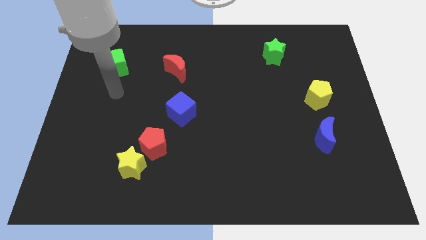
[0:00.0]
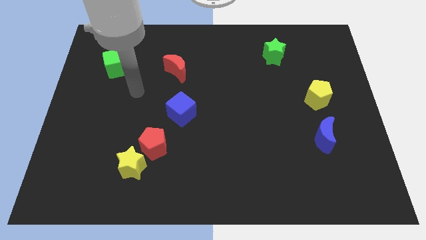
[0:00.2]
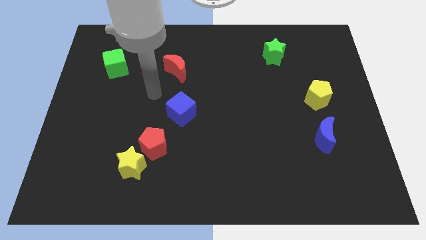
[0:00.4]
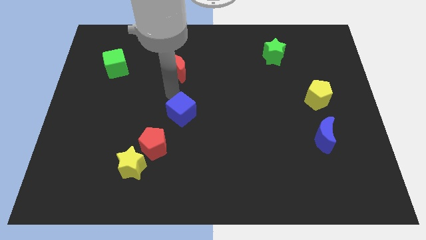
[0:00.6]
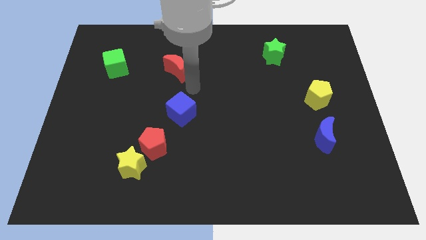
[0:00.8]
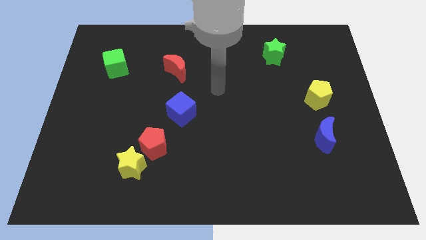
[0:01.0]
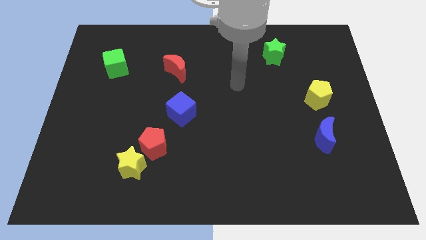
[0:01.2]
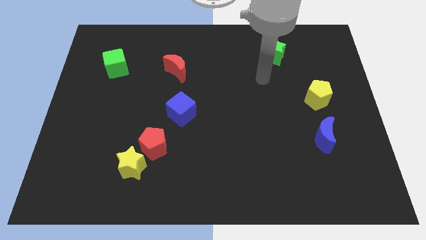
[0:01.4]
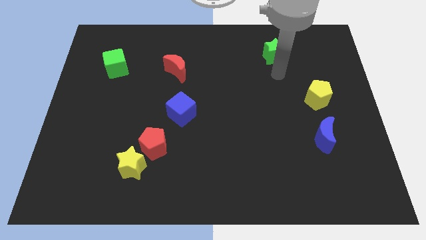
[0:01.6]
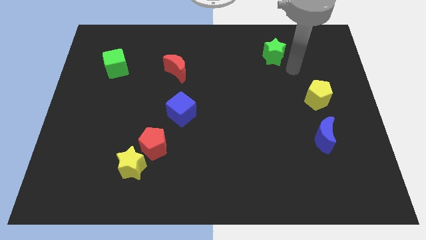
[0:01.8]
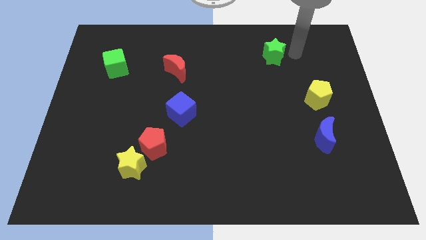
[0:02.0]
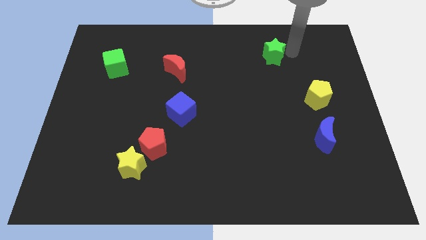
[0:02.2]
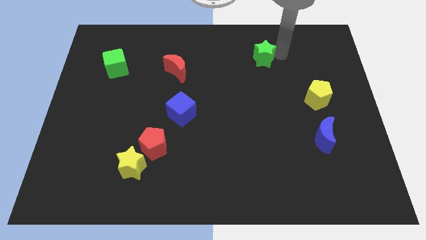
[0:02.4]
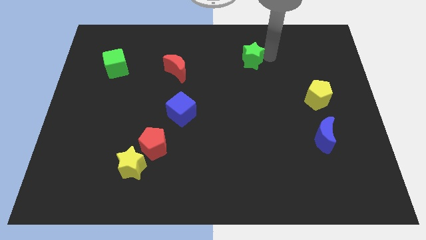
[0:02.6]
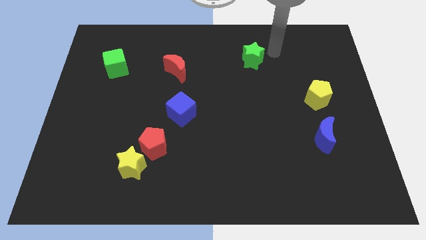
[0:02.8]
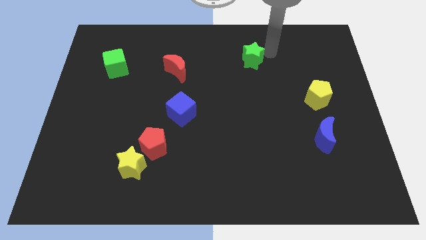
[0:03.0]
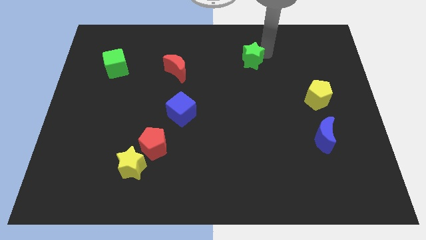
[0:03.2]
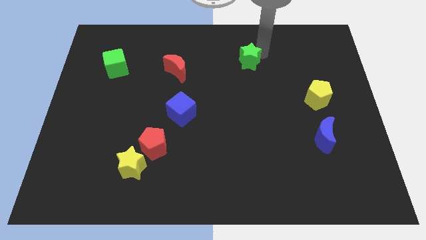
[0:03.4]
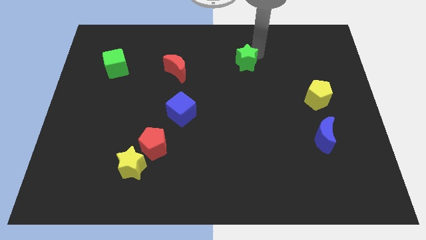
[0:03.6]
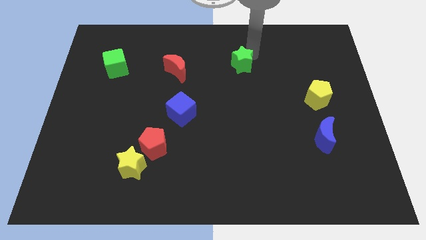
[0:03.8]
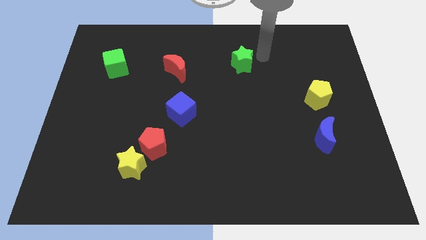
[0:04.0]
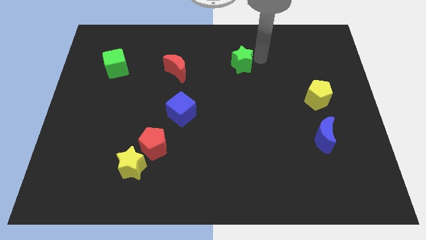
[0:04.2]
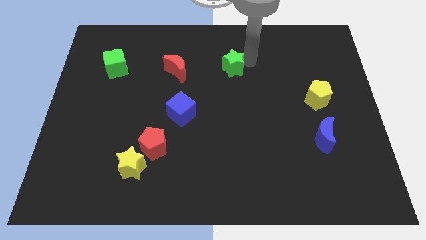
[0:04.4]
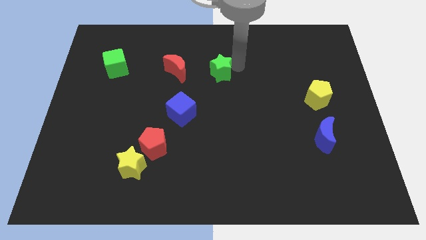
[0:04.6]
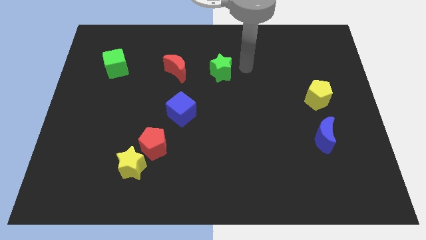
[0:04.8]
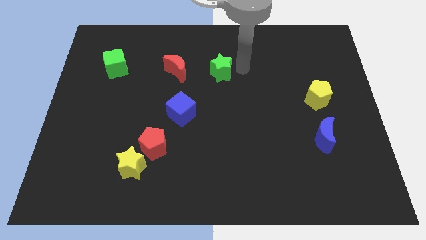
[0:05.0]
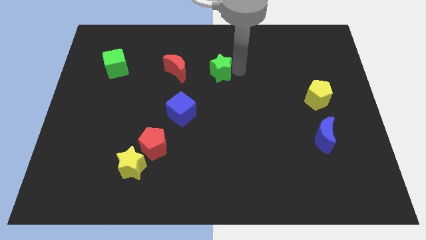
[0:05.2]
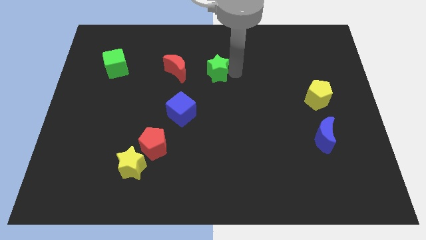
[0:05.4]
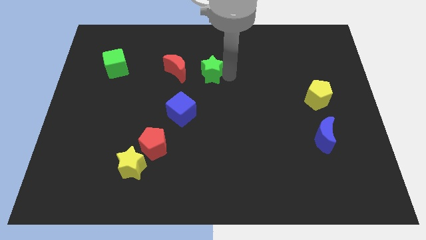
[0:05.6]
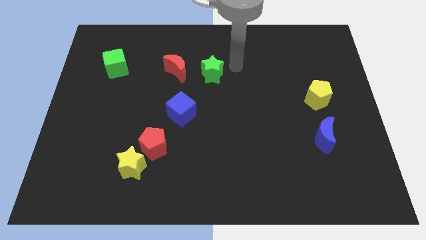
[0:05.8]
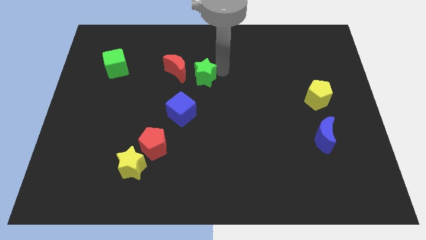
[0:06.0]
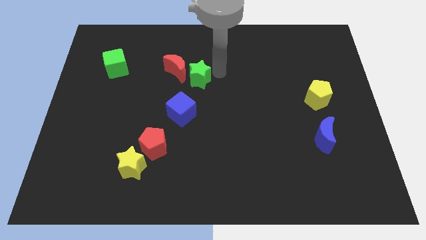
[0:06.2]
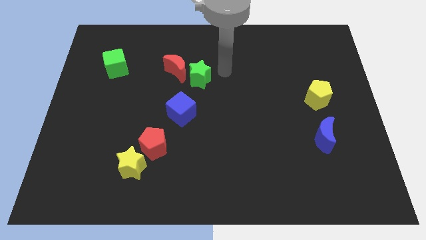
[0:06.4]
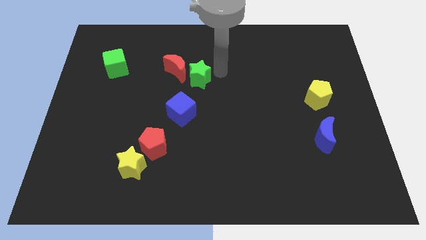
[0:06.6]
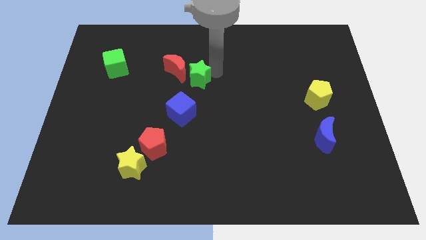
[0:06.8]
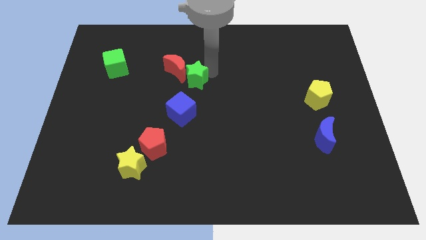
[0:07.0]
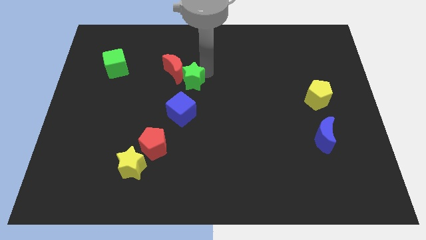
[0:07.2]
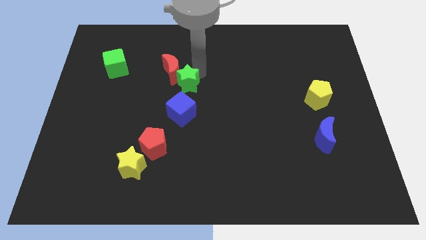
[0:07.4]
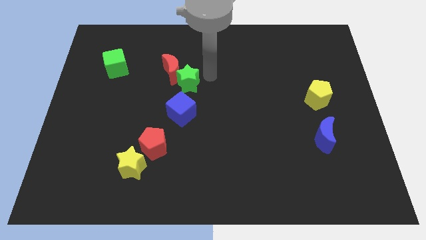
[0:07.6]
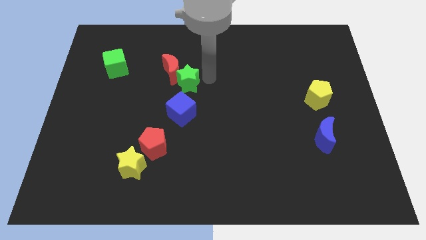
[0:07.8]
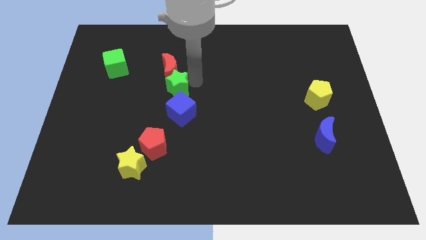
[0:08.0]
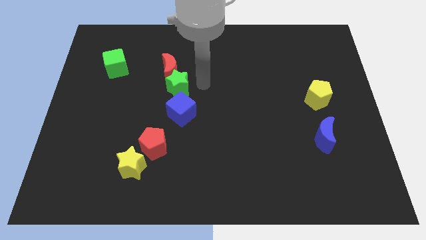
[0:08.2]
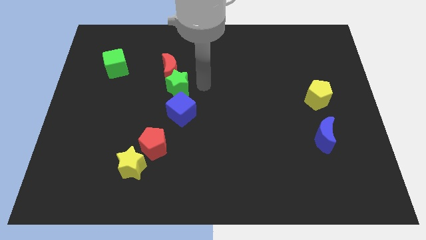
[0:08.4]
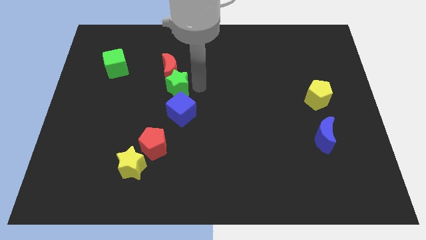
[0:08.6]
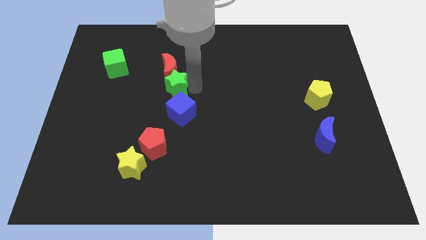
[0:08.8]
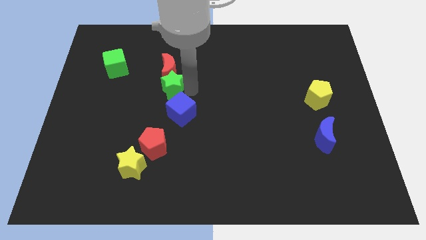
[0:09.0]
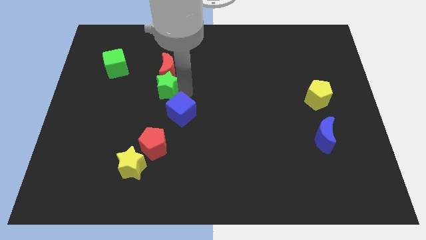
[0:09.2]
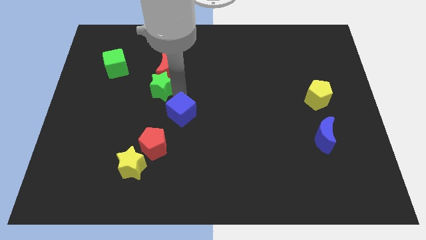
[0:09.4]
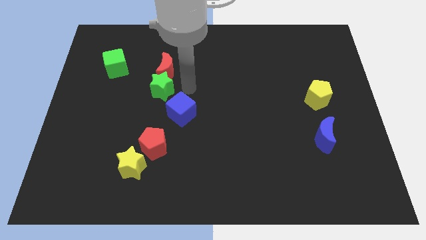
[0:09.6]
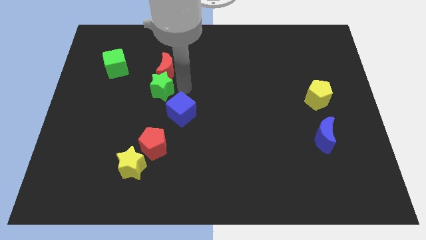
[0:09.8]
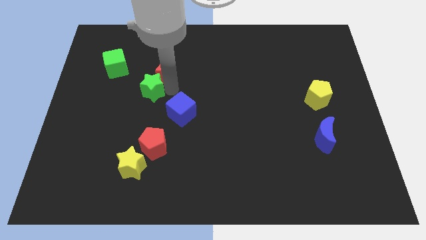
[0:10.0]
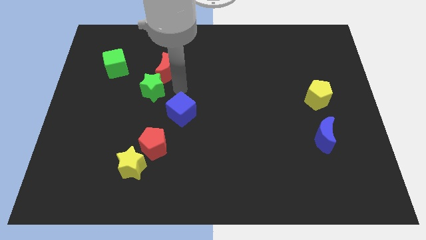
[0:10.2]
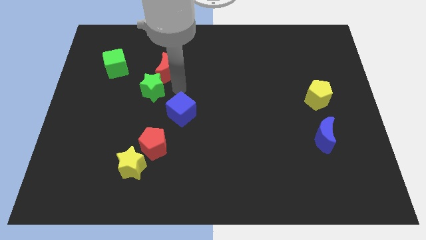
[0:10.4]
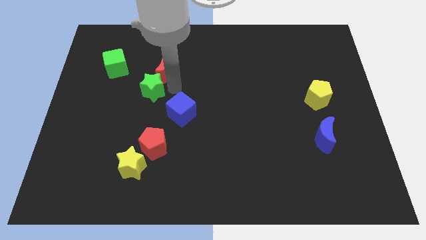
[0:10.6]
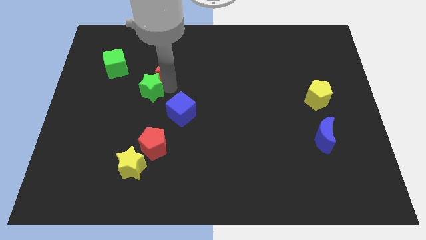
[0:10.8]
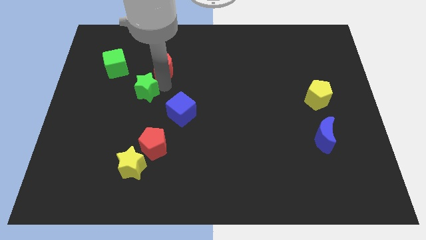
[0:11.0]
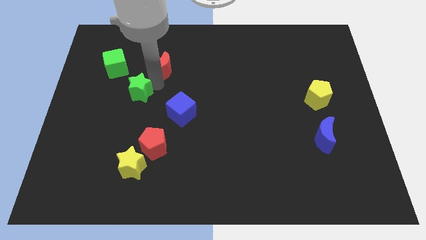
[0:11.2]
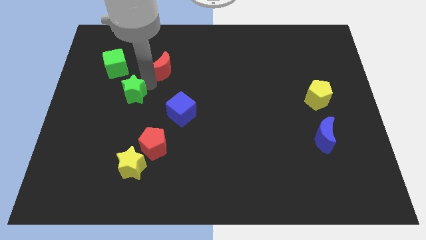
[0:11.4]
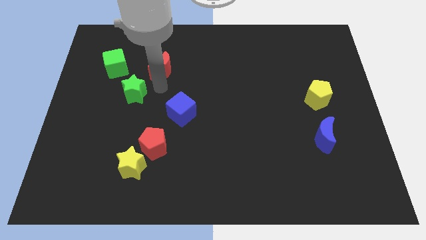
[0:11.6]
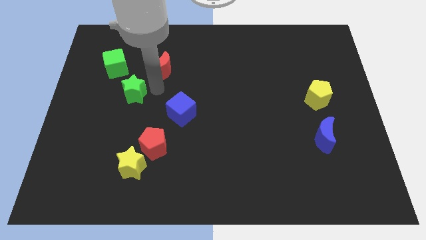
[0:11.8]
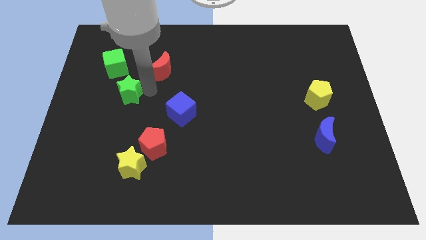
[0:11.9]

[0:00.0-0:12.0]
slide the green star below the green cube
